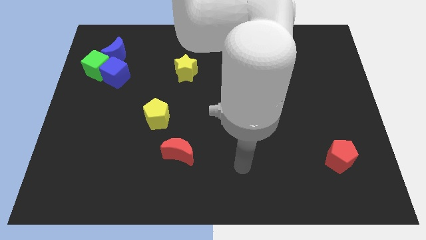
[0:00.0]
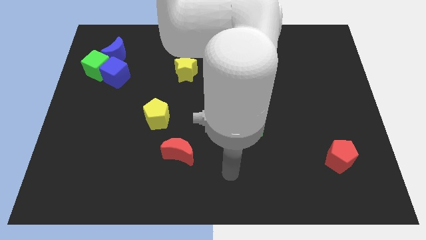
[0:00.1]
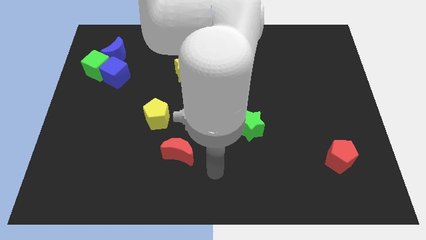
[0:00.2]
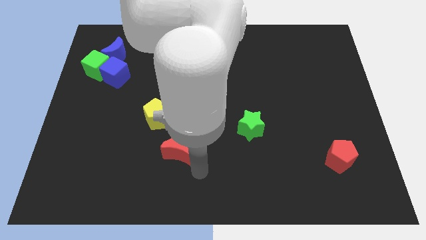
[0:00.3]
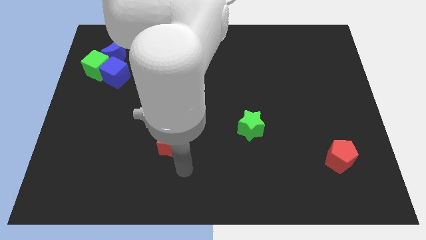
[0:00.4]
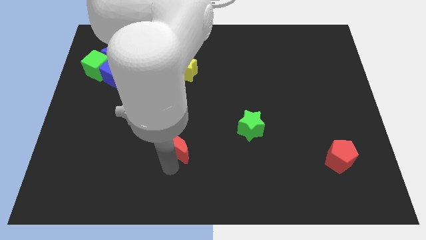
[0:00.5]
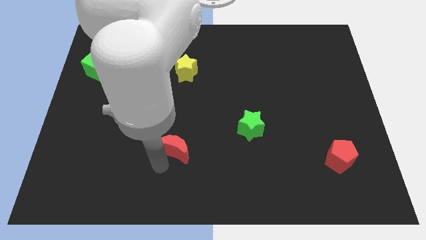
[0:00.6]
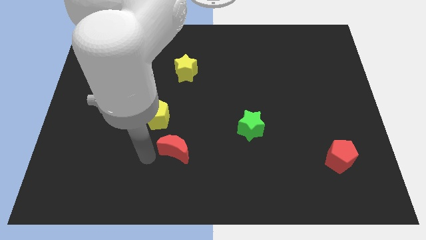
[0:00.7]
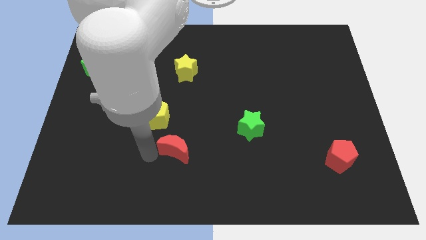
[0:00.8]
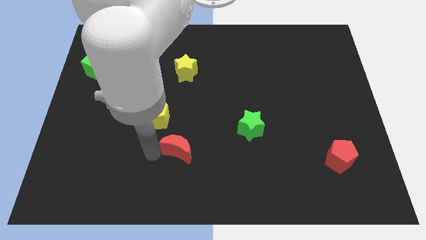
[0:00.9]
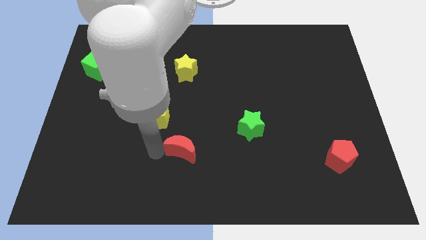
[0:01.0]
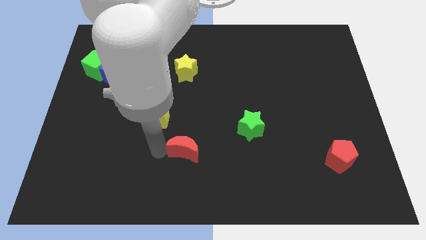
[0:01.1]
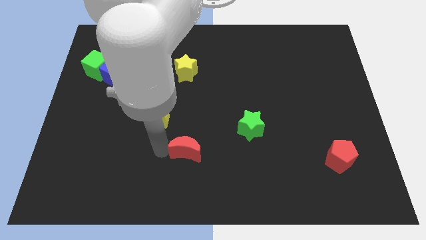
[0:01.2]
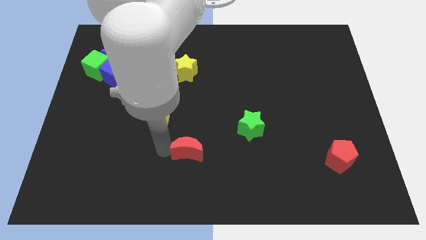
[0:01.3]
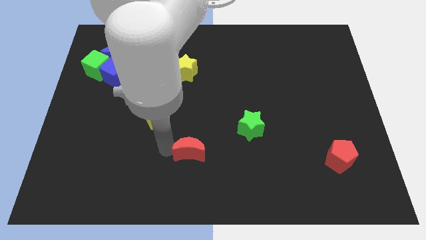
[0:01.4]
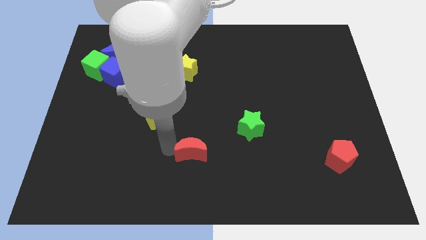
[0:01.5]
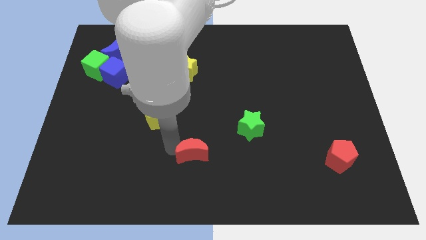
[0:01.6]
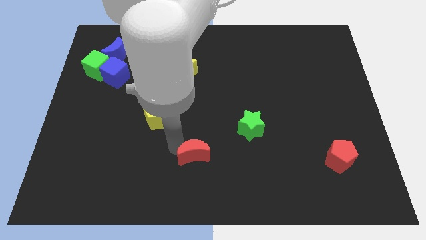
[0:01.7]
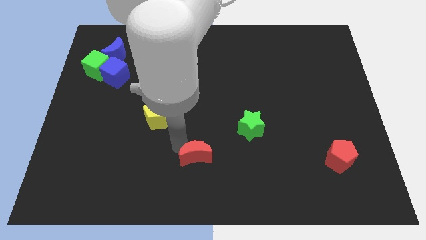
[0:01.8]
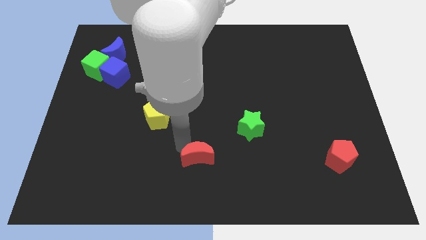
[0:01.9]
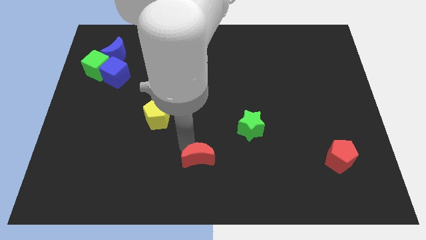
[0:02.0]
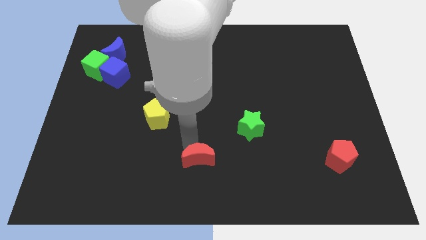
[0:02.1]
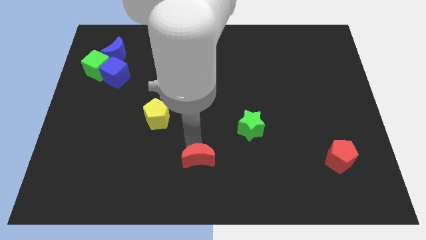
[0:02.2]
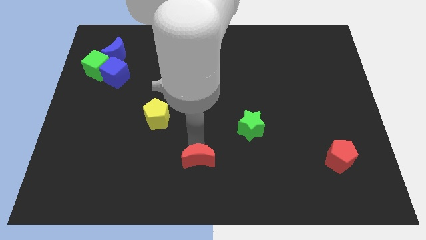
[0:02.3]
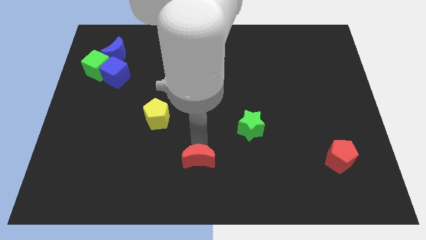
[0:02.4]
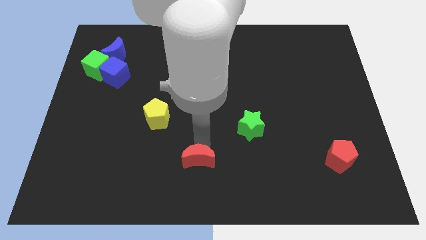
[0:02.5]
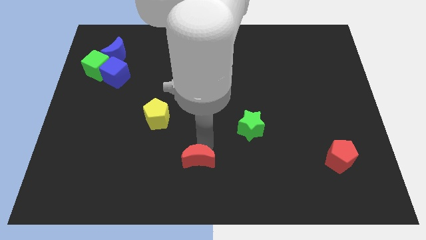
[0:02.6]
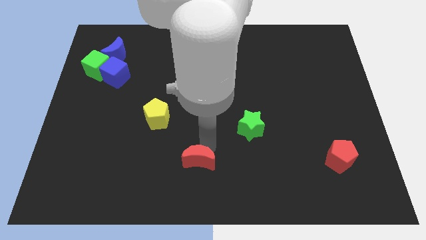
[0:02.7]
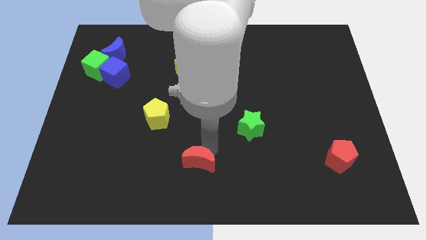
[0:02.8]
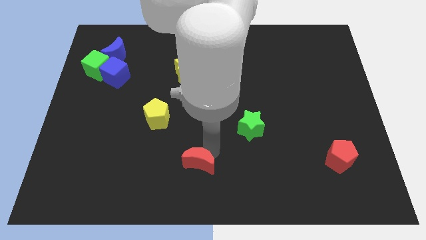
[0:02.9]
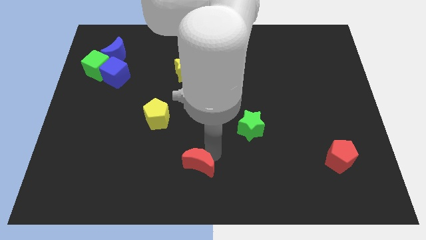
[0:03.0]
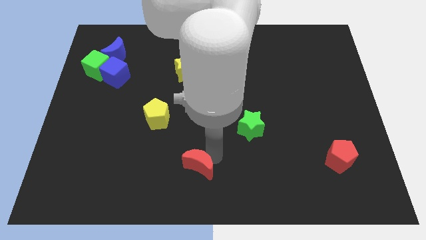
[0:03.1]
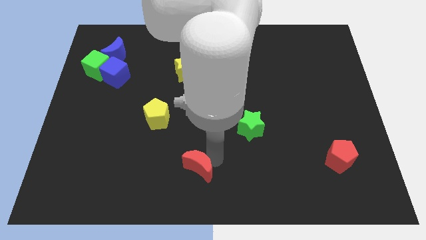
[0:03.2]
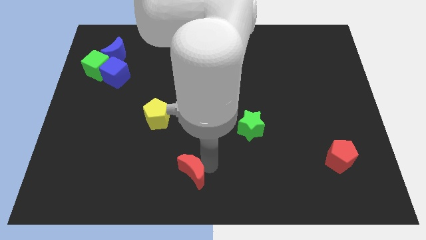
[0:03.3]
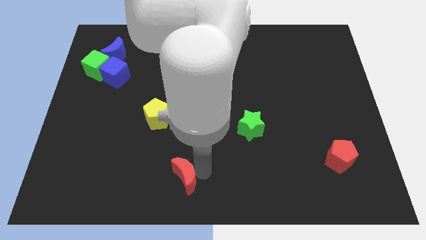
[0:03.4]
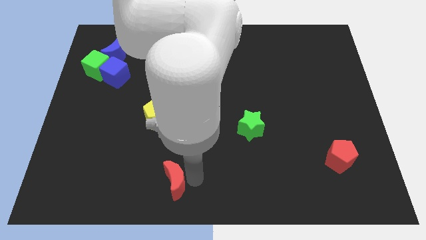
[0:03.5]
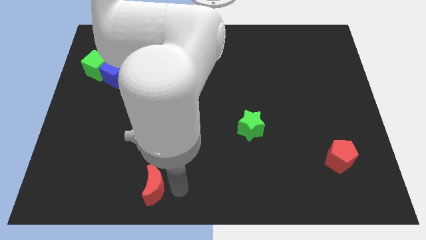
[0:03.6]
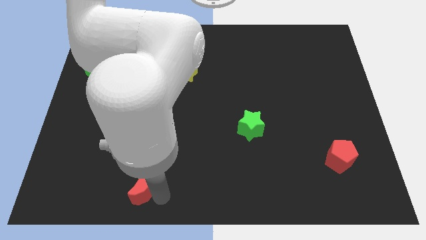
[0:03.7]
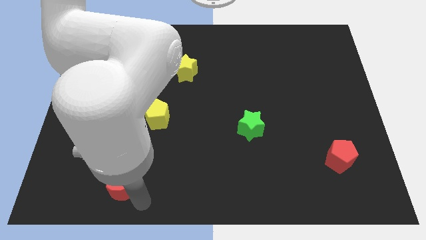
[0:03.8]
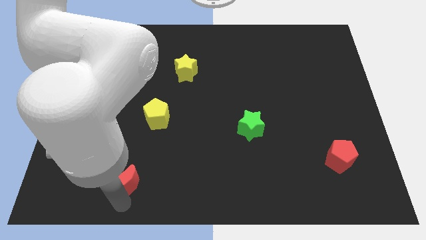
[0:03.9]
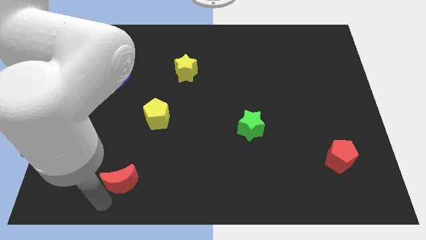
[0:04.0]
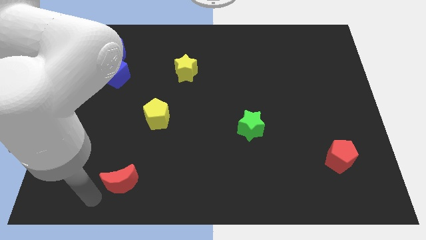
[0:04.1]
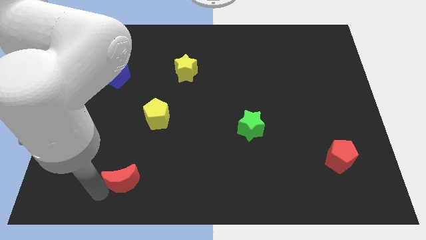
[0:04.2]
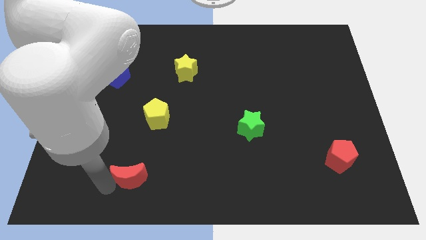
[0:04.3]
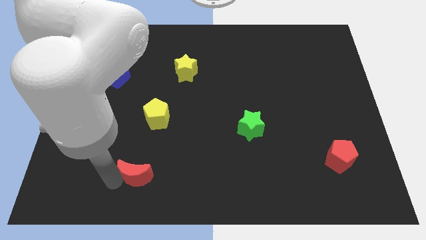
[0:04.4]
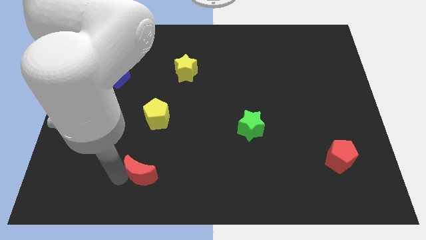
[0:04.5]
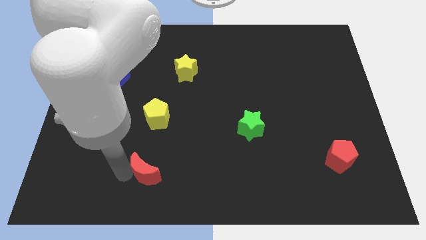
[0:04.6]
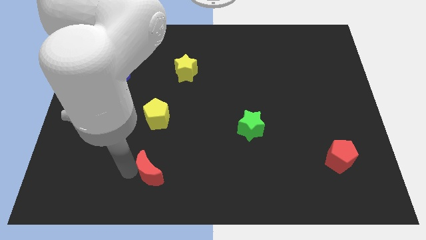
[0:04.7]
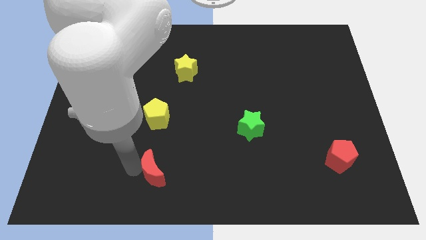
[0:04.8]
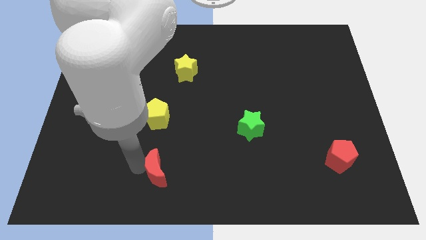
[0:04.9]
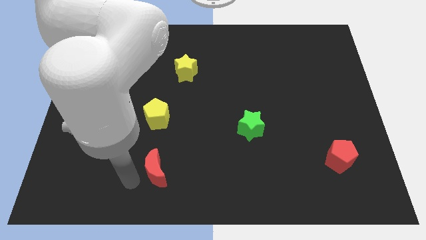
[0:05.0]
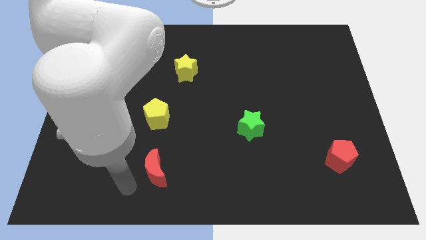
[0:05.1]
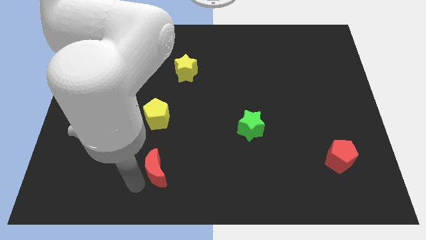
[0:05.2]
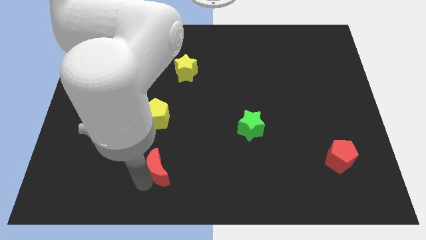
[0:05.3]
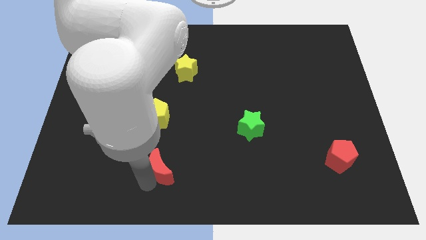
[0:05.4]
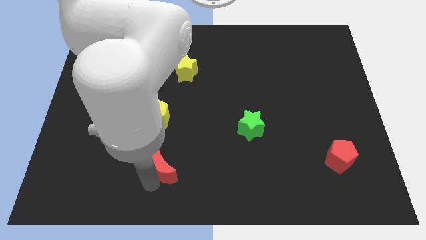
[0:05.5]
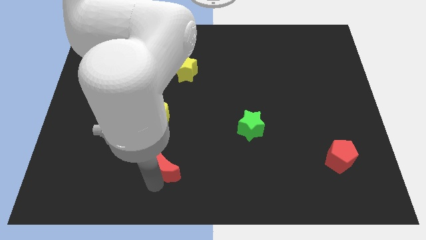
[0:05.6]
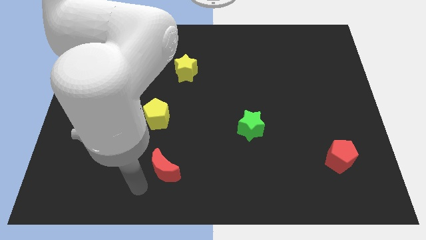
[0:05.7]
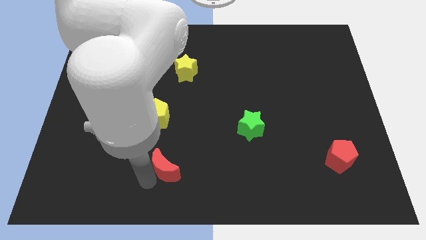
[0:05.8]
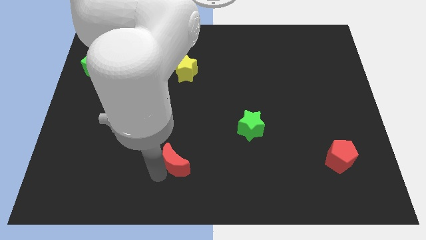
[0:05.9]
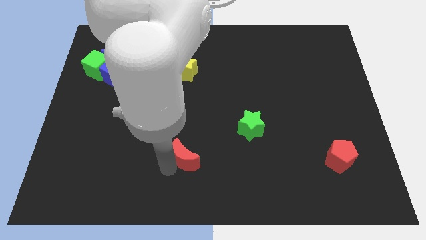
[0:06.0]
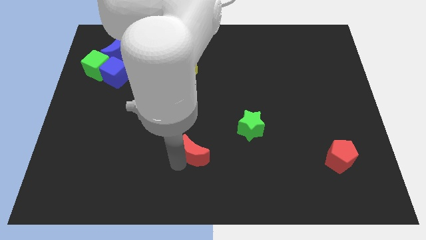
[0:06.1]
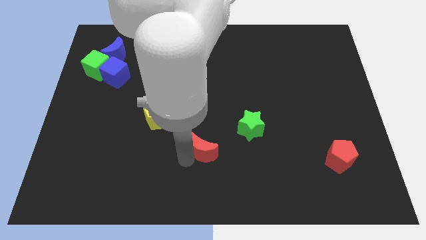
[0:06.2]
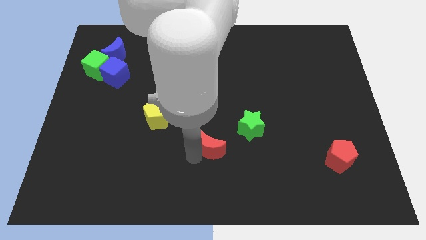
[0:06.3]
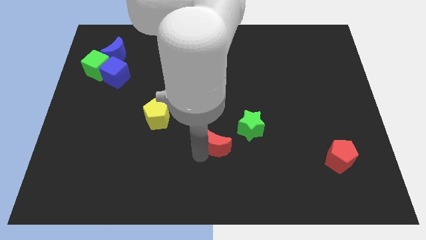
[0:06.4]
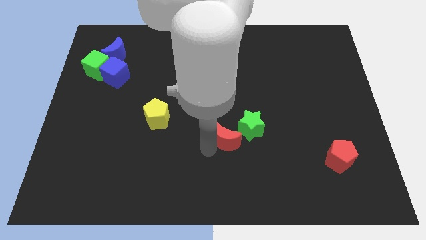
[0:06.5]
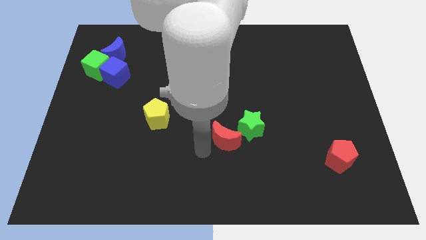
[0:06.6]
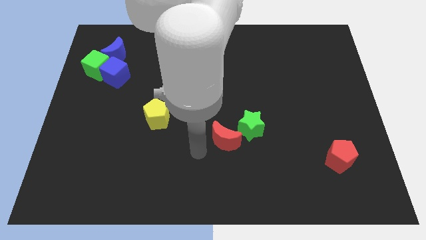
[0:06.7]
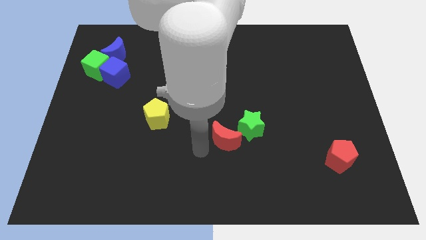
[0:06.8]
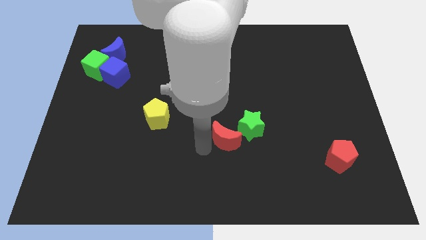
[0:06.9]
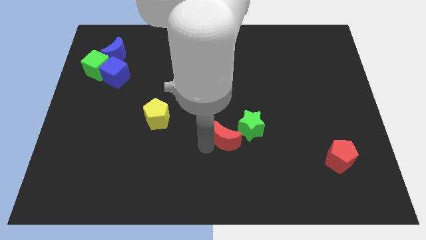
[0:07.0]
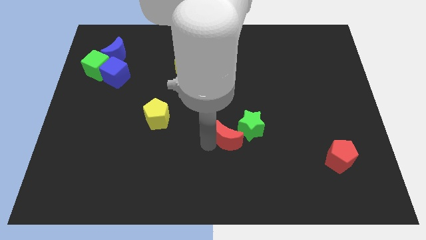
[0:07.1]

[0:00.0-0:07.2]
move the red moon next to the green star

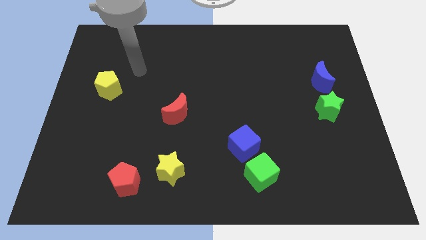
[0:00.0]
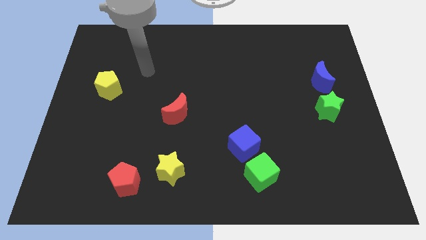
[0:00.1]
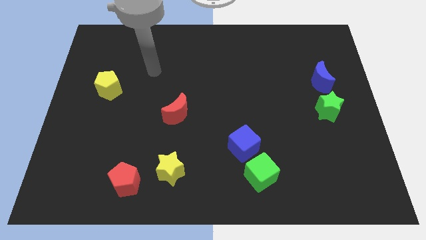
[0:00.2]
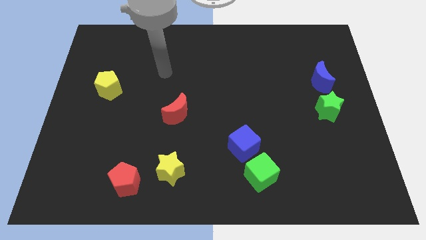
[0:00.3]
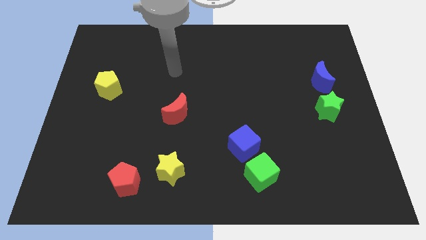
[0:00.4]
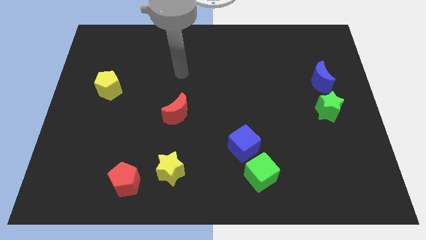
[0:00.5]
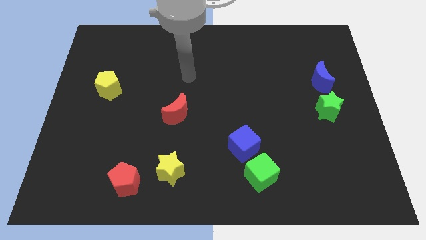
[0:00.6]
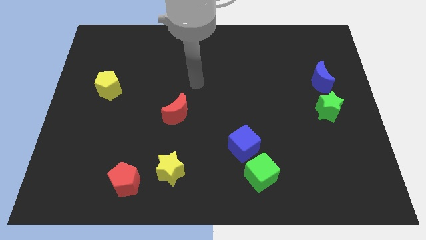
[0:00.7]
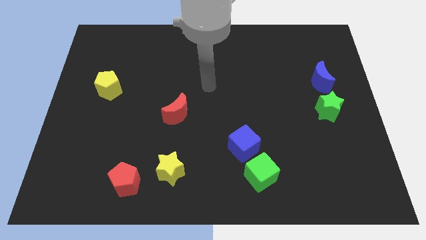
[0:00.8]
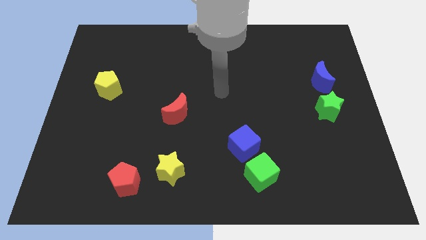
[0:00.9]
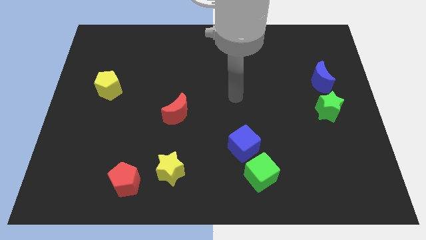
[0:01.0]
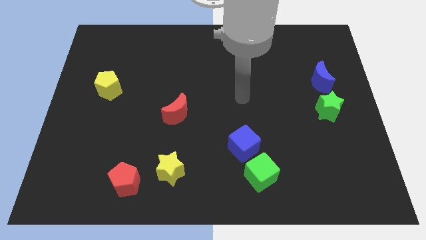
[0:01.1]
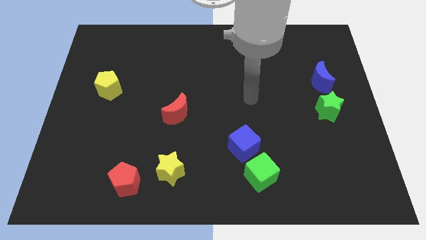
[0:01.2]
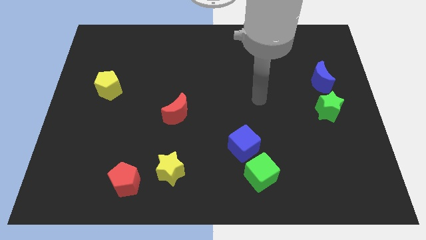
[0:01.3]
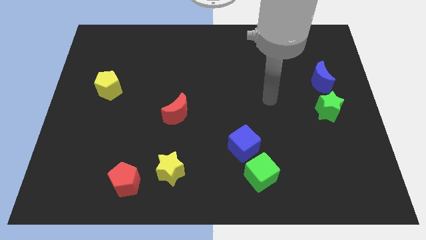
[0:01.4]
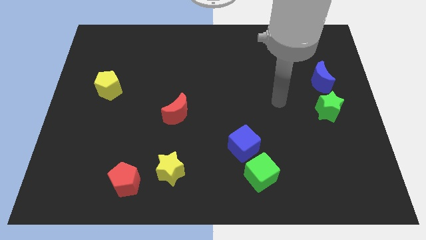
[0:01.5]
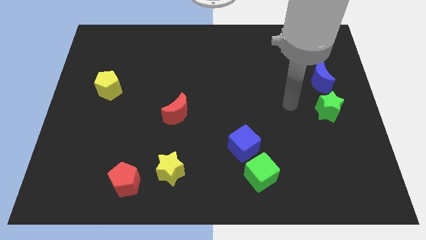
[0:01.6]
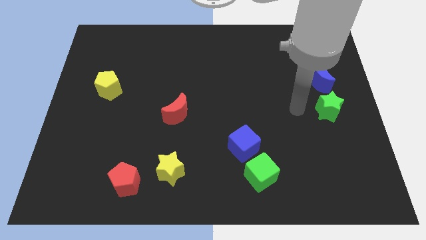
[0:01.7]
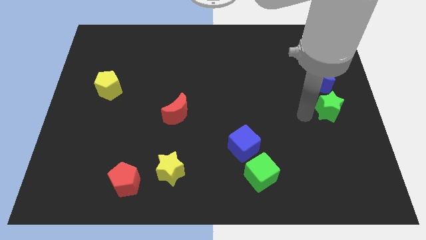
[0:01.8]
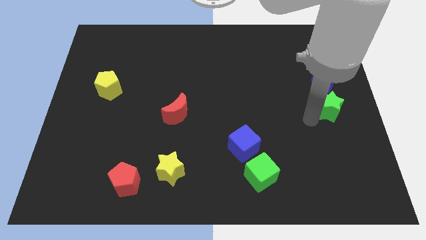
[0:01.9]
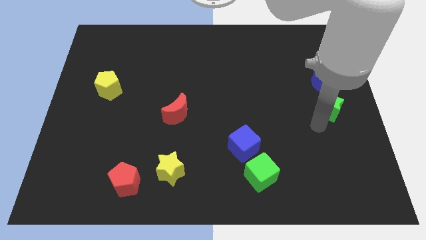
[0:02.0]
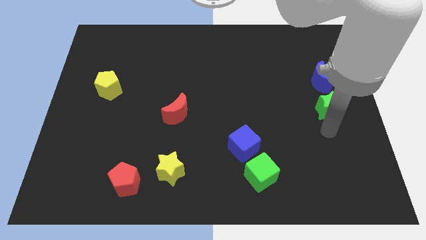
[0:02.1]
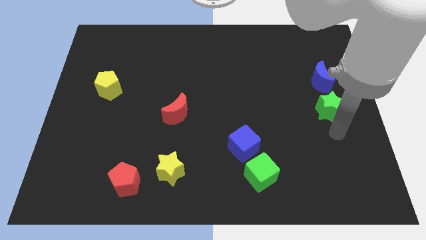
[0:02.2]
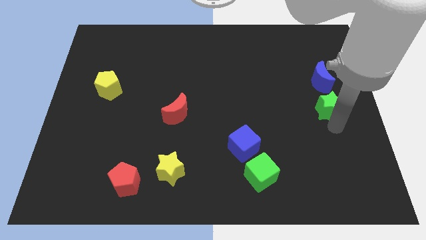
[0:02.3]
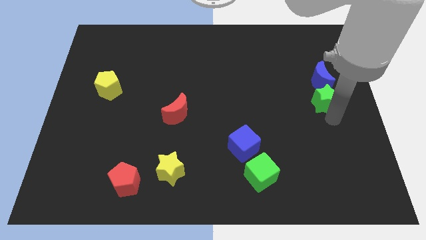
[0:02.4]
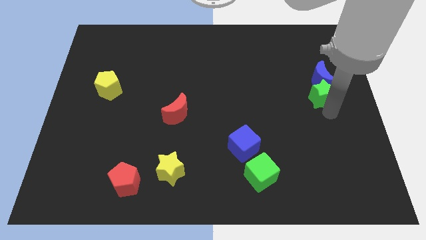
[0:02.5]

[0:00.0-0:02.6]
put the green star towards the blue moon
